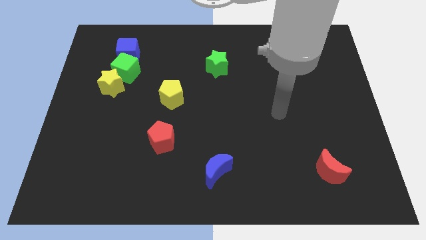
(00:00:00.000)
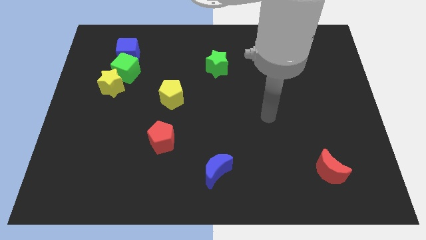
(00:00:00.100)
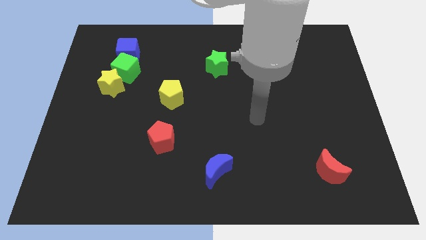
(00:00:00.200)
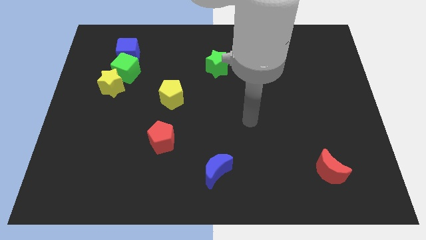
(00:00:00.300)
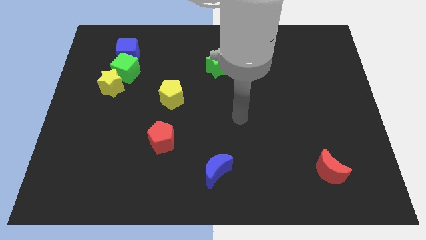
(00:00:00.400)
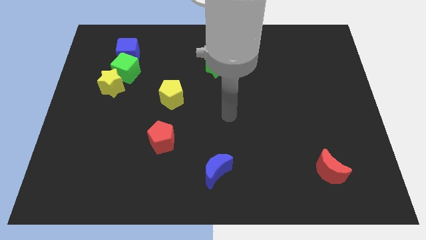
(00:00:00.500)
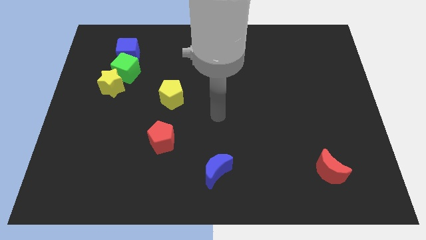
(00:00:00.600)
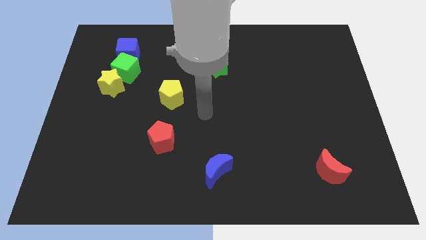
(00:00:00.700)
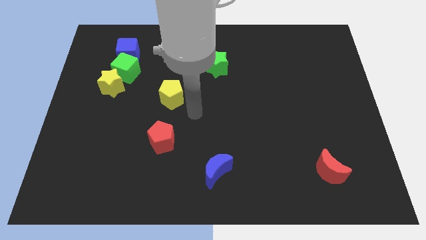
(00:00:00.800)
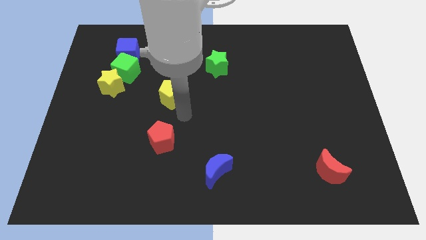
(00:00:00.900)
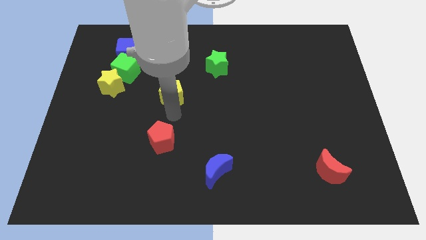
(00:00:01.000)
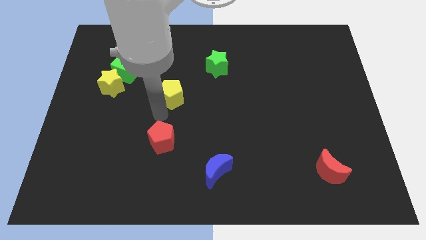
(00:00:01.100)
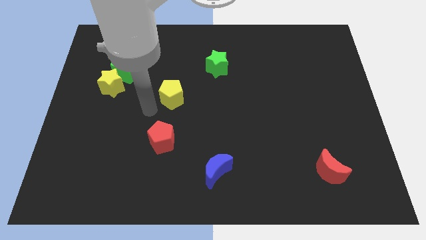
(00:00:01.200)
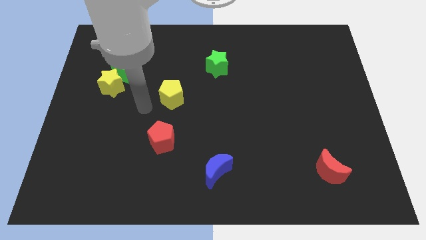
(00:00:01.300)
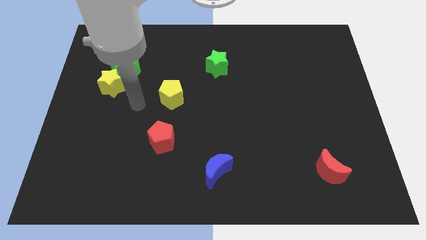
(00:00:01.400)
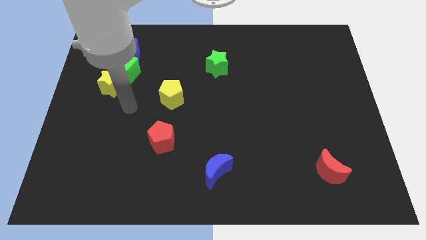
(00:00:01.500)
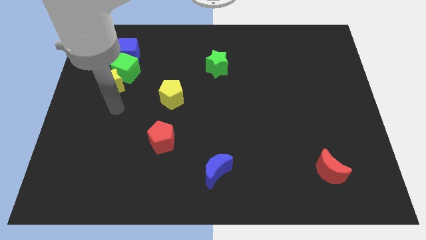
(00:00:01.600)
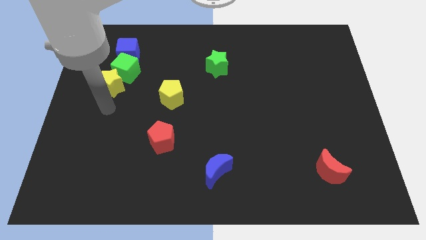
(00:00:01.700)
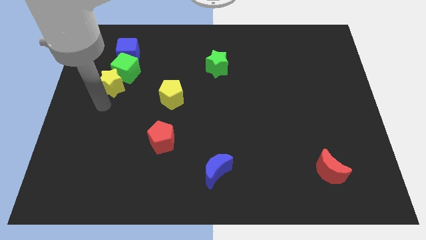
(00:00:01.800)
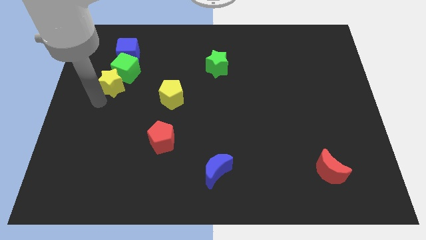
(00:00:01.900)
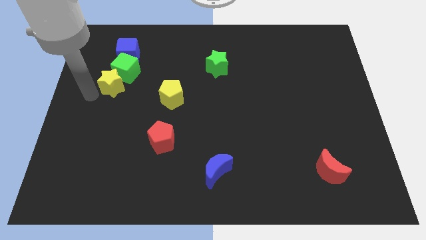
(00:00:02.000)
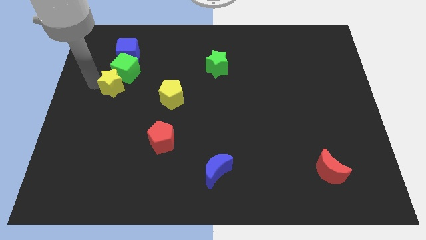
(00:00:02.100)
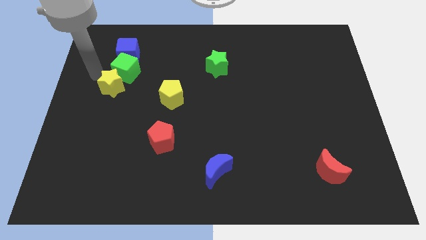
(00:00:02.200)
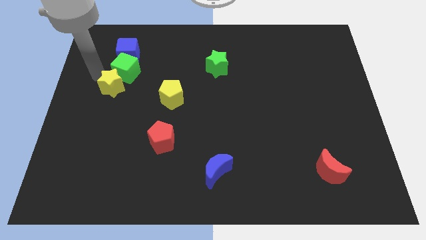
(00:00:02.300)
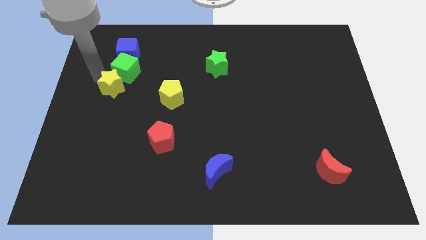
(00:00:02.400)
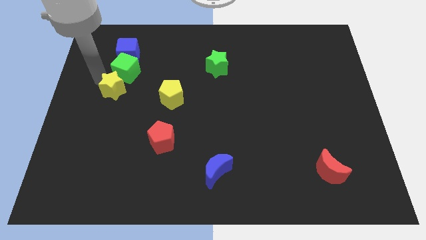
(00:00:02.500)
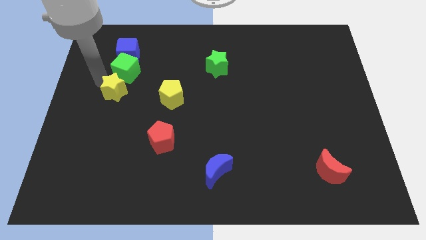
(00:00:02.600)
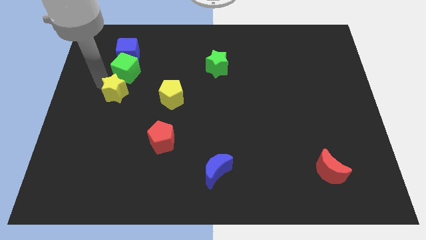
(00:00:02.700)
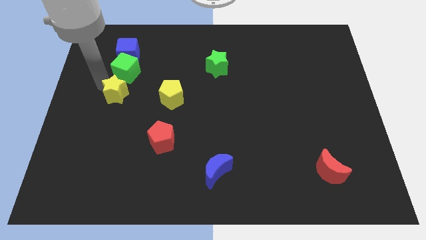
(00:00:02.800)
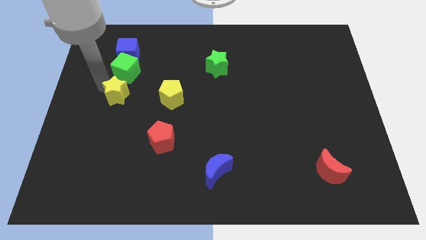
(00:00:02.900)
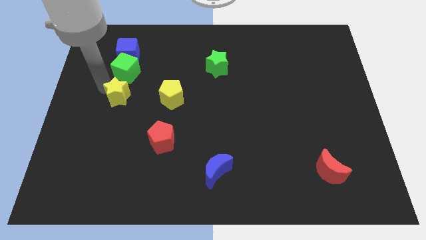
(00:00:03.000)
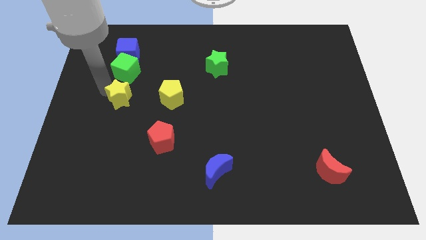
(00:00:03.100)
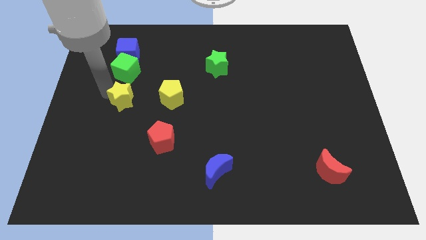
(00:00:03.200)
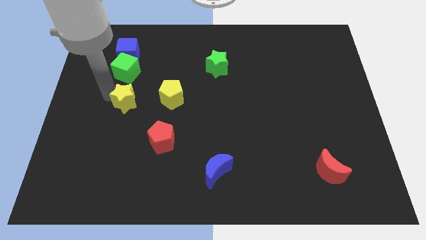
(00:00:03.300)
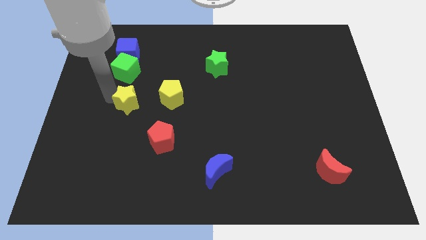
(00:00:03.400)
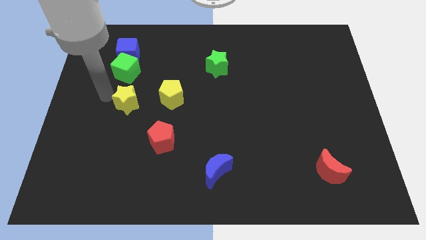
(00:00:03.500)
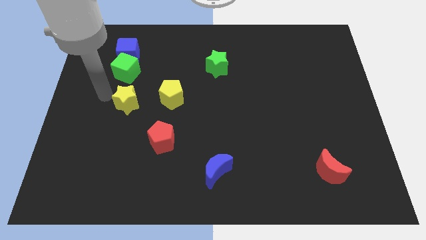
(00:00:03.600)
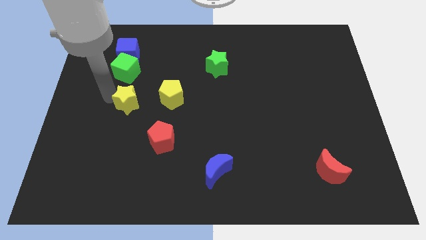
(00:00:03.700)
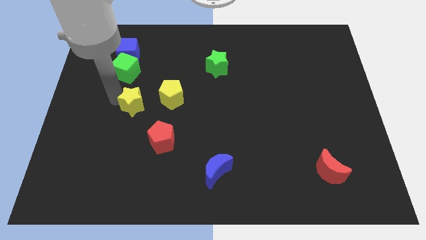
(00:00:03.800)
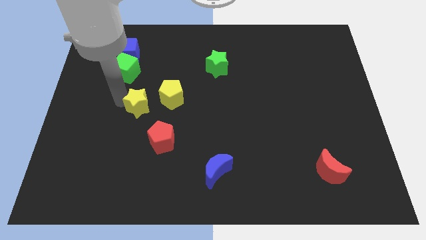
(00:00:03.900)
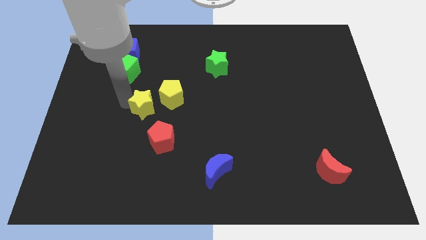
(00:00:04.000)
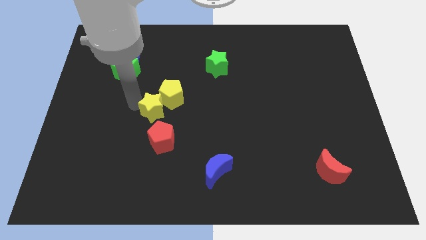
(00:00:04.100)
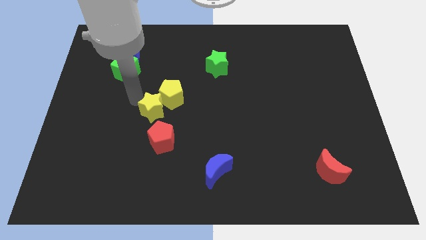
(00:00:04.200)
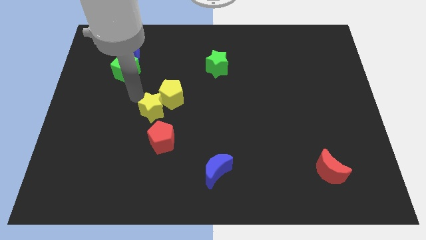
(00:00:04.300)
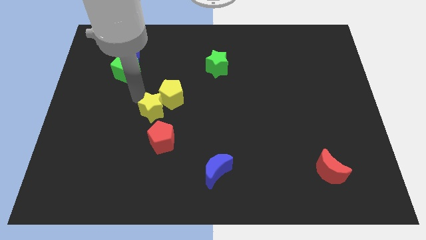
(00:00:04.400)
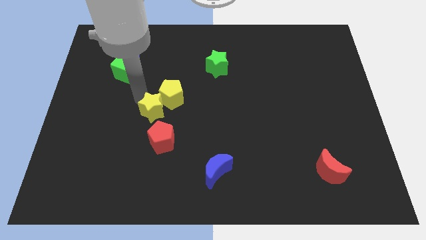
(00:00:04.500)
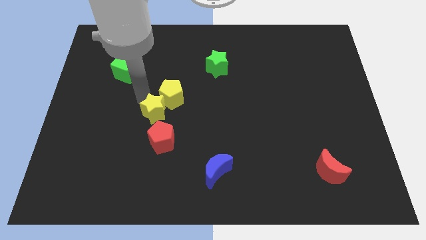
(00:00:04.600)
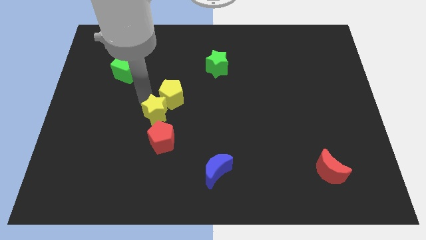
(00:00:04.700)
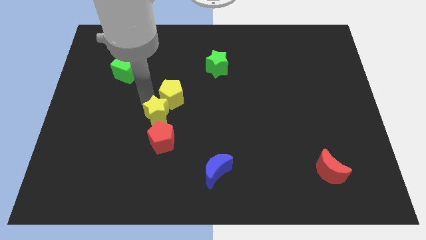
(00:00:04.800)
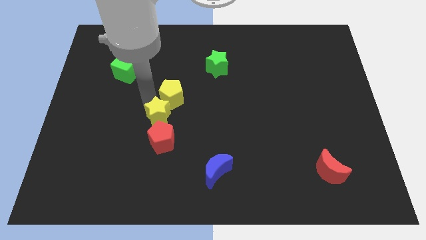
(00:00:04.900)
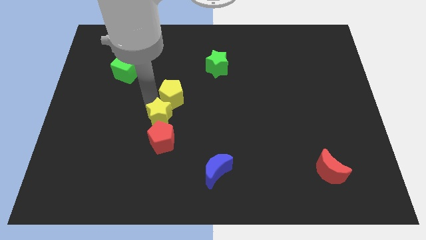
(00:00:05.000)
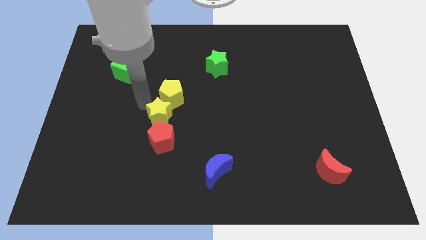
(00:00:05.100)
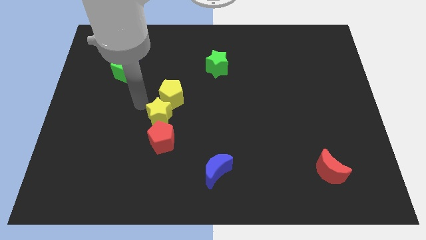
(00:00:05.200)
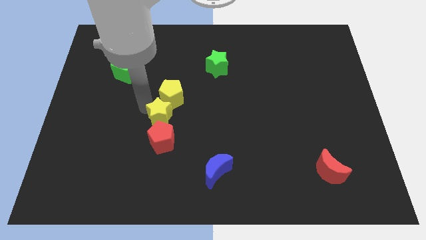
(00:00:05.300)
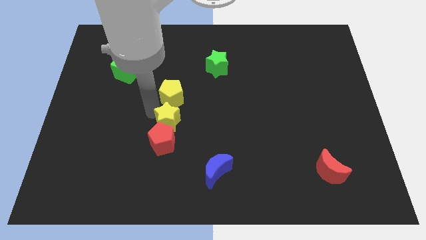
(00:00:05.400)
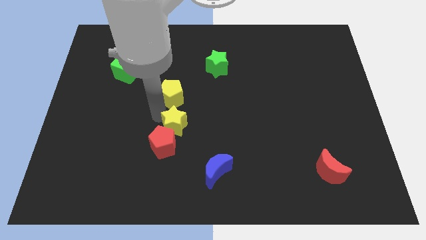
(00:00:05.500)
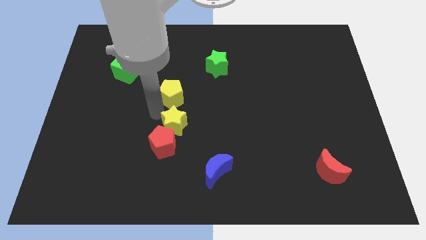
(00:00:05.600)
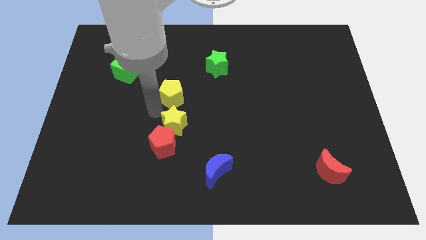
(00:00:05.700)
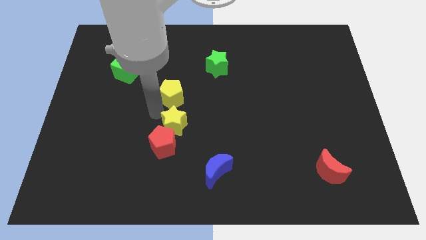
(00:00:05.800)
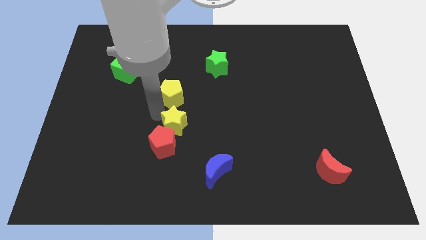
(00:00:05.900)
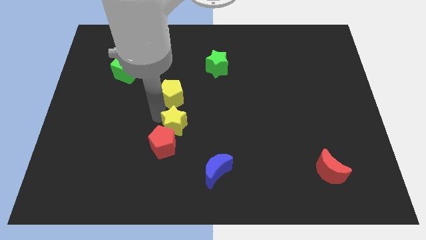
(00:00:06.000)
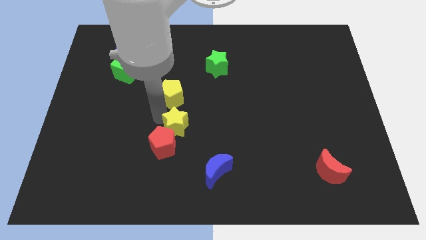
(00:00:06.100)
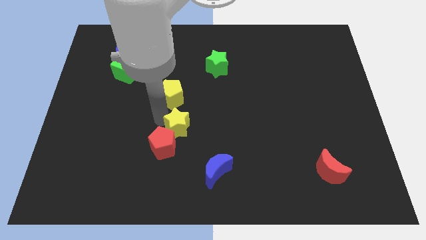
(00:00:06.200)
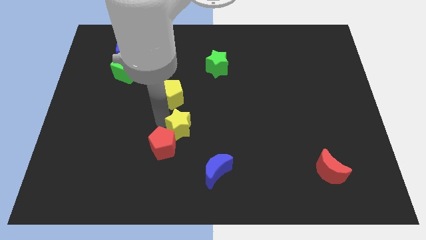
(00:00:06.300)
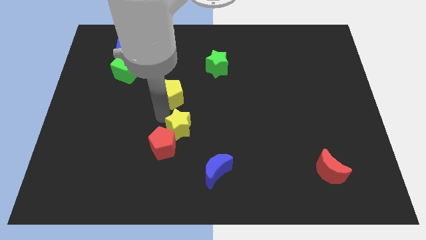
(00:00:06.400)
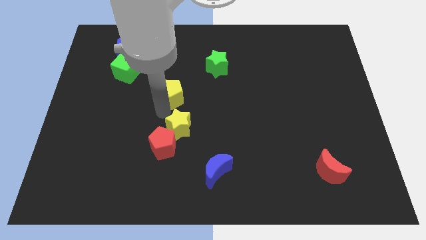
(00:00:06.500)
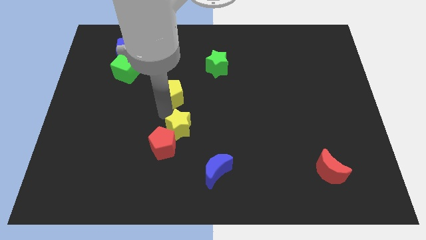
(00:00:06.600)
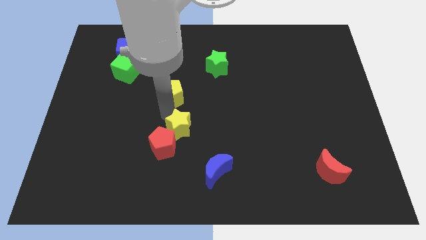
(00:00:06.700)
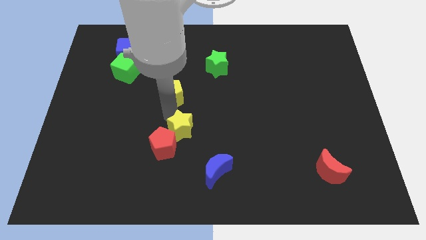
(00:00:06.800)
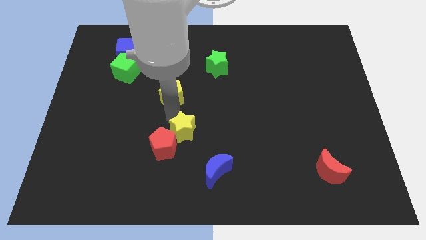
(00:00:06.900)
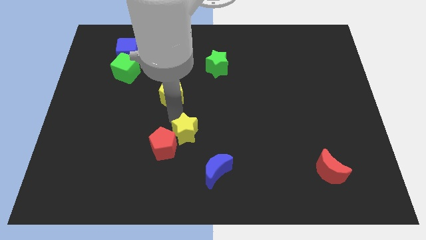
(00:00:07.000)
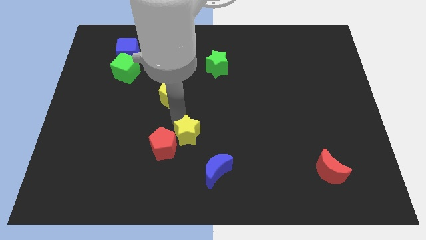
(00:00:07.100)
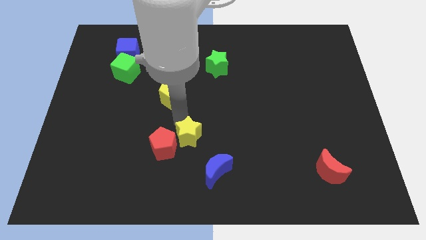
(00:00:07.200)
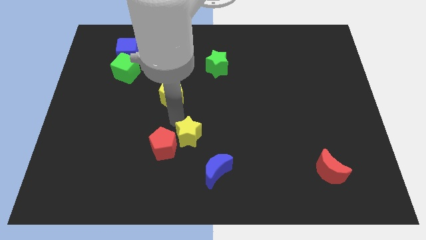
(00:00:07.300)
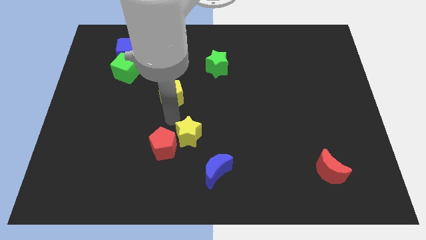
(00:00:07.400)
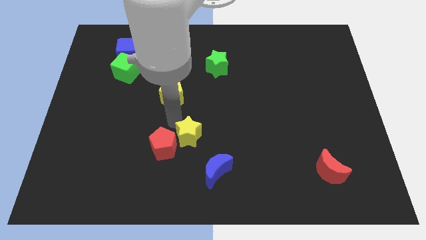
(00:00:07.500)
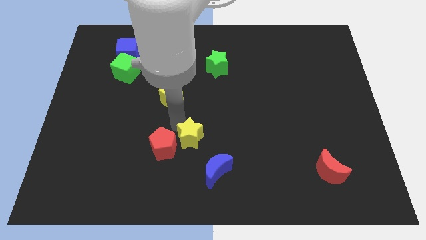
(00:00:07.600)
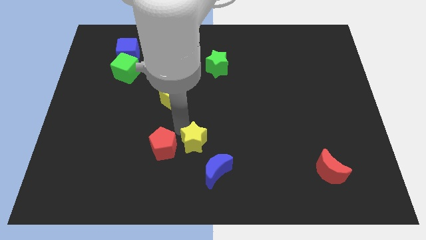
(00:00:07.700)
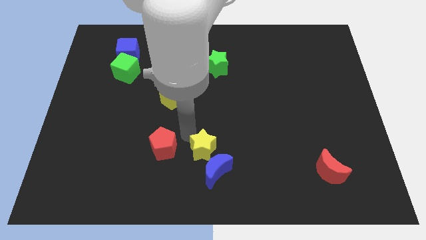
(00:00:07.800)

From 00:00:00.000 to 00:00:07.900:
move the yellow star to the blue moon
